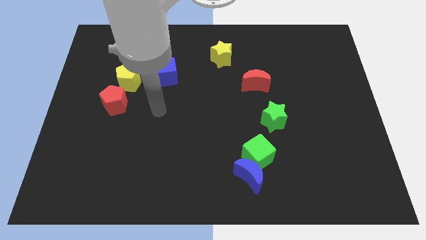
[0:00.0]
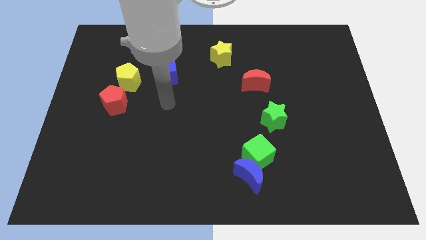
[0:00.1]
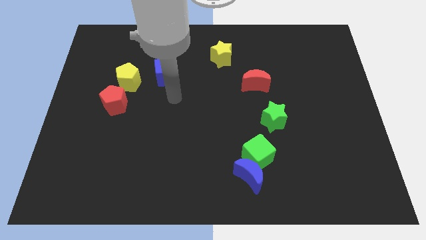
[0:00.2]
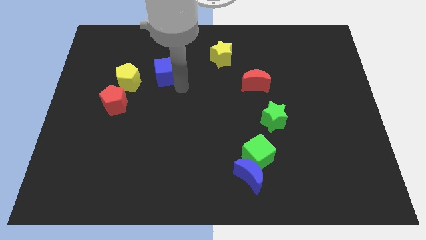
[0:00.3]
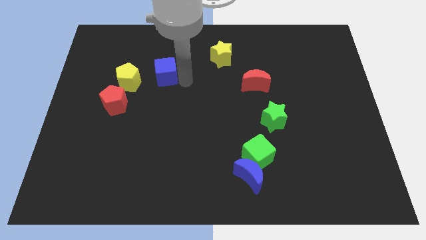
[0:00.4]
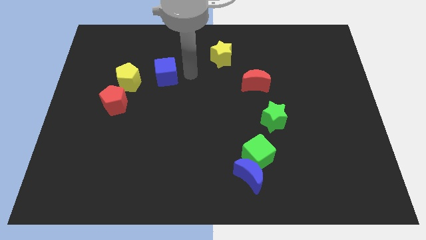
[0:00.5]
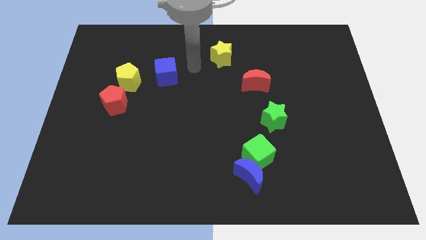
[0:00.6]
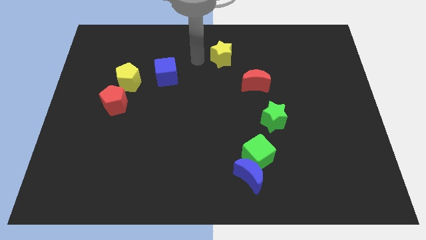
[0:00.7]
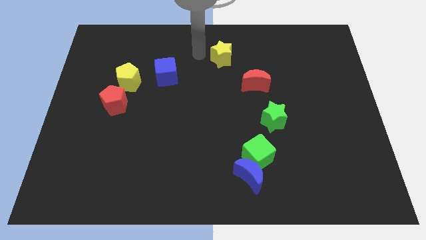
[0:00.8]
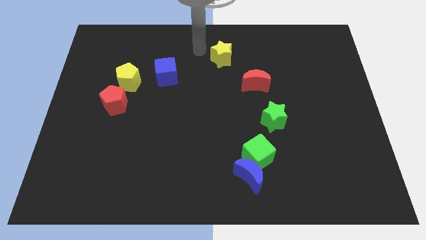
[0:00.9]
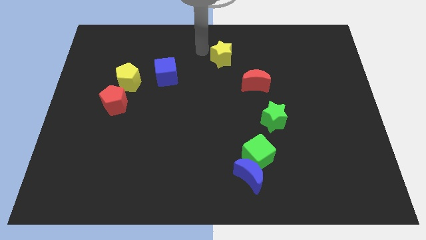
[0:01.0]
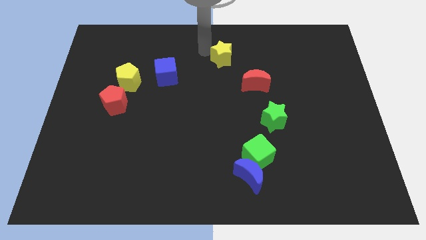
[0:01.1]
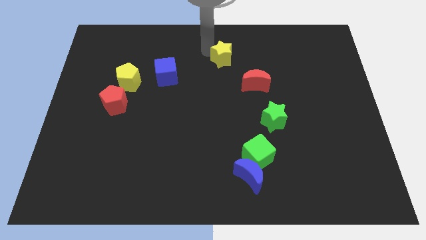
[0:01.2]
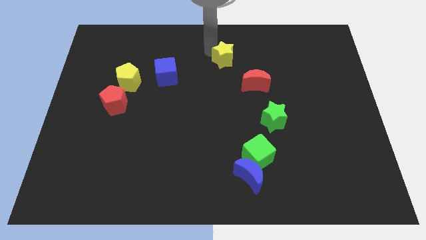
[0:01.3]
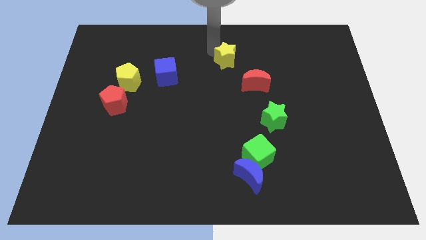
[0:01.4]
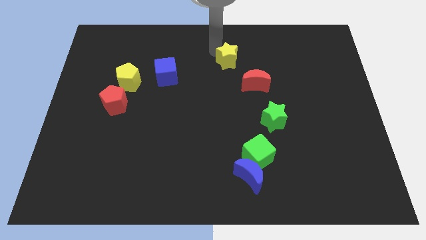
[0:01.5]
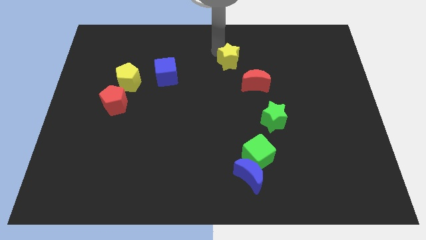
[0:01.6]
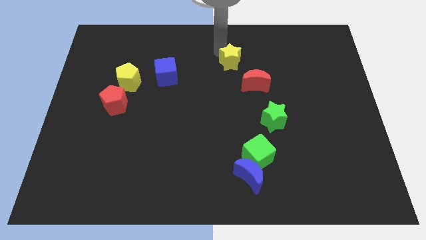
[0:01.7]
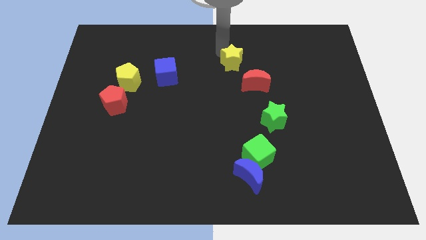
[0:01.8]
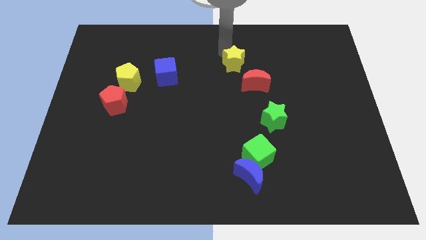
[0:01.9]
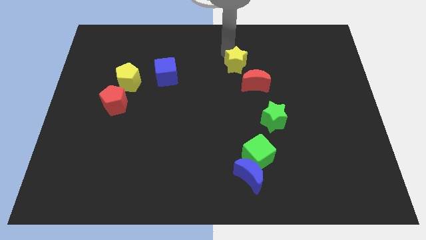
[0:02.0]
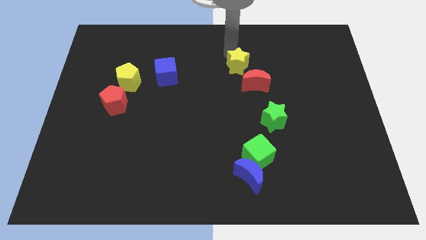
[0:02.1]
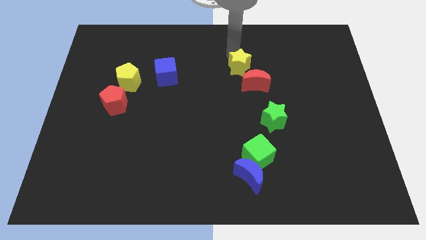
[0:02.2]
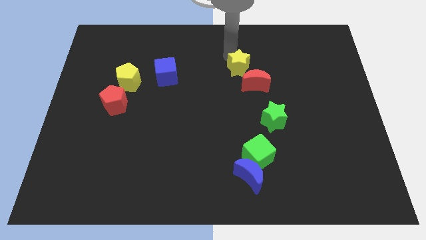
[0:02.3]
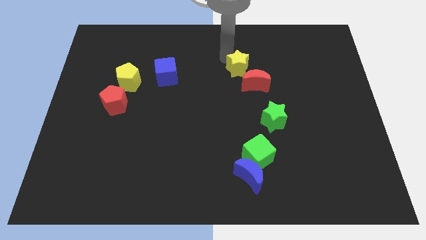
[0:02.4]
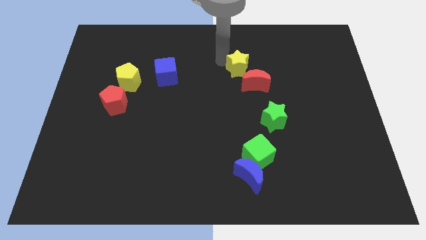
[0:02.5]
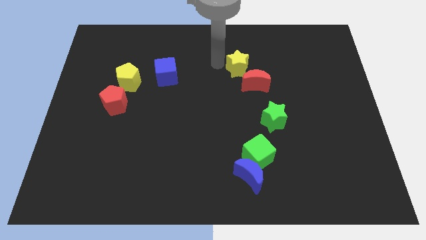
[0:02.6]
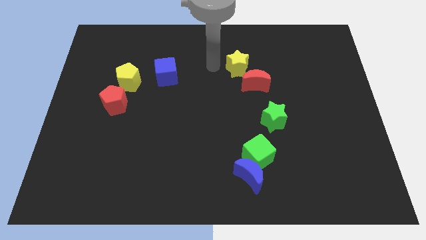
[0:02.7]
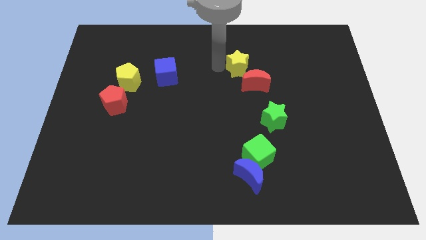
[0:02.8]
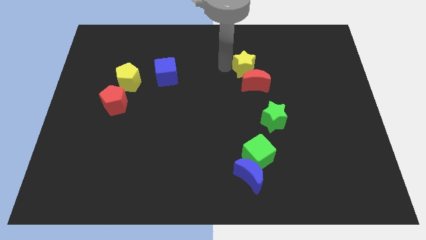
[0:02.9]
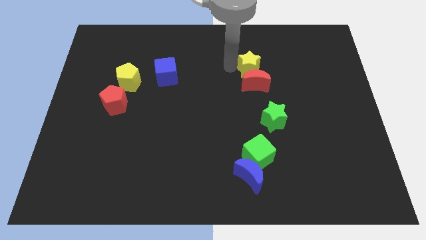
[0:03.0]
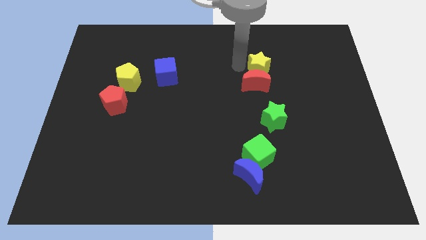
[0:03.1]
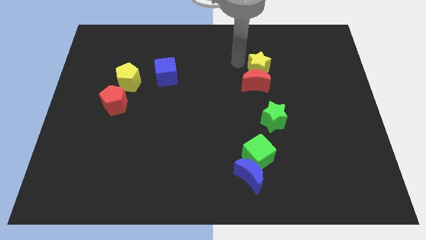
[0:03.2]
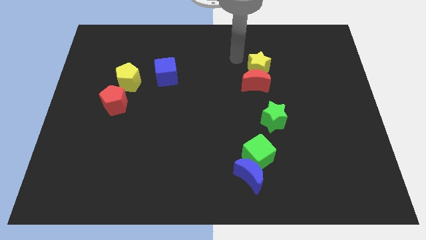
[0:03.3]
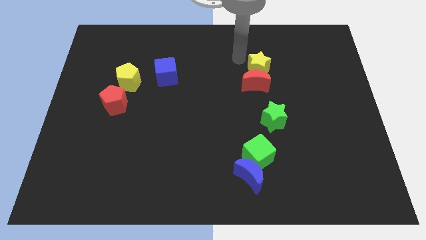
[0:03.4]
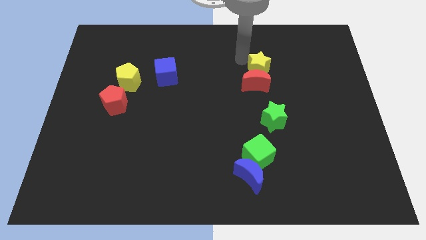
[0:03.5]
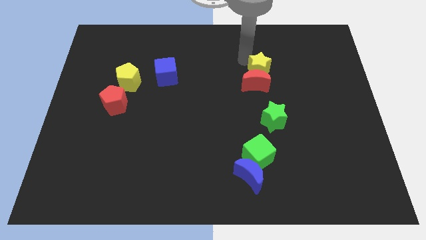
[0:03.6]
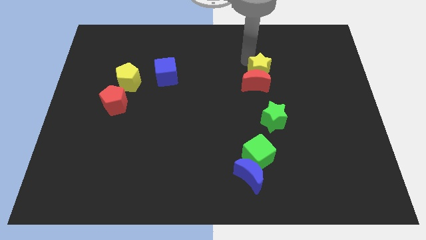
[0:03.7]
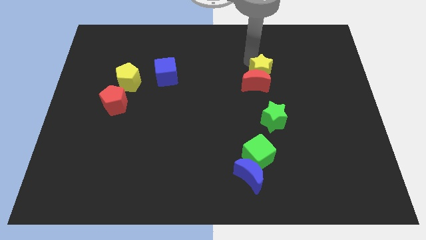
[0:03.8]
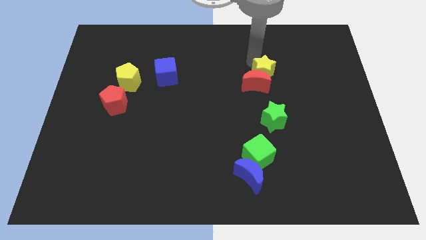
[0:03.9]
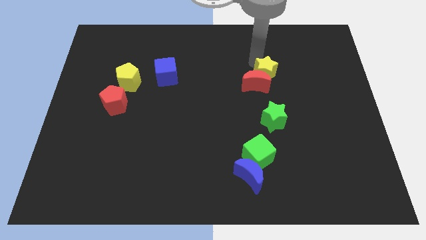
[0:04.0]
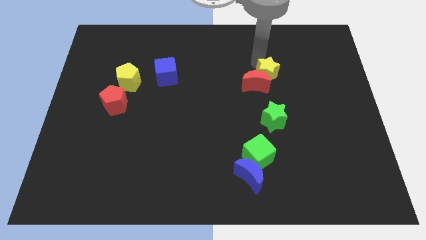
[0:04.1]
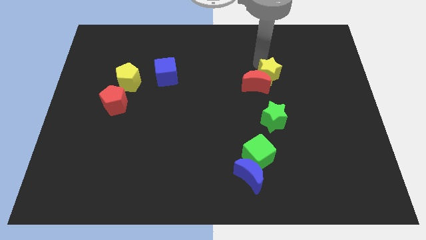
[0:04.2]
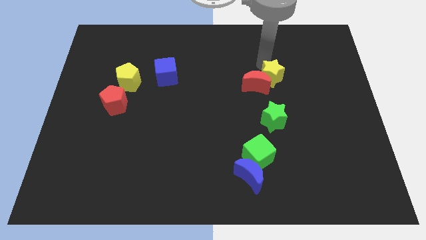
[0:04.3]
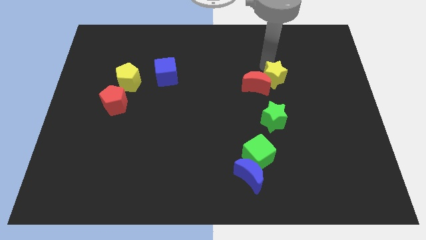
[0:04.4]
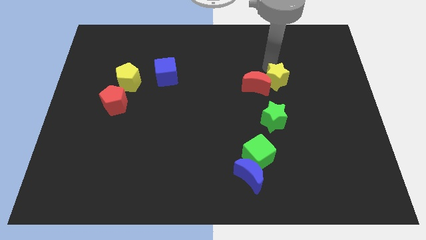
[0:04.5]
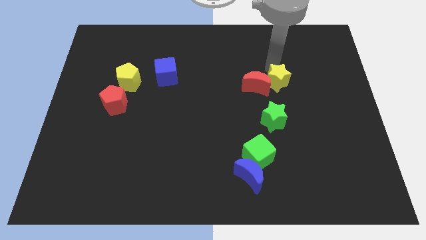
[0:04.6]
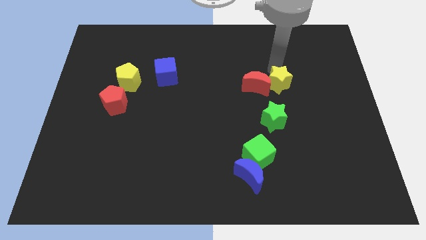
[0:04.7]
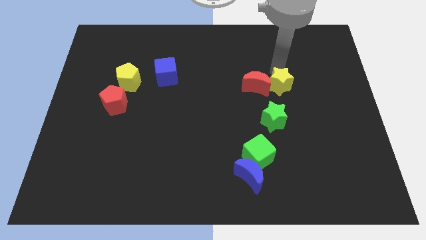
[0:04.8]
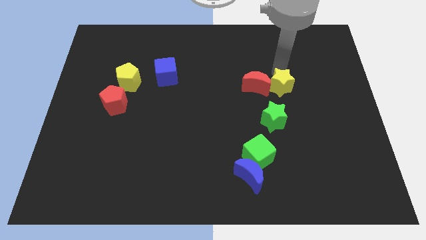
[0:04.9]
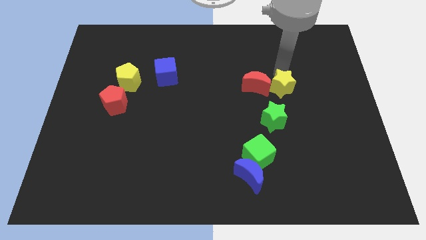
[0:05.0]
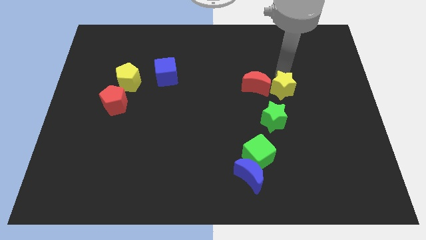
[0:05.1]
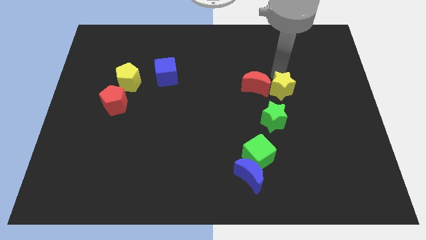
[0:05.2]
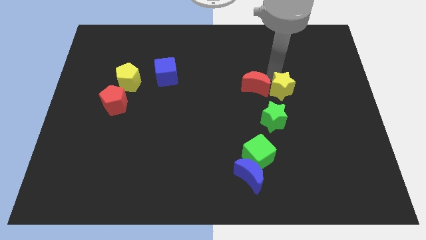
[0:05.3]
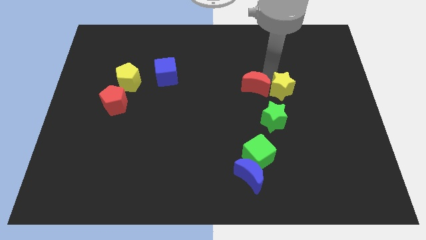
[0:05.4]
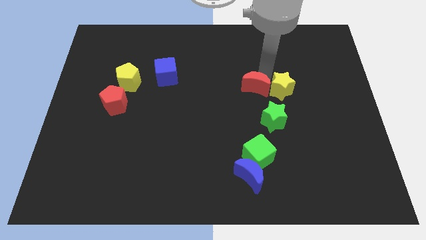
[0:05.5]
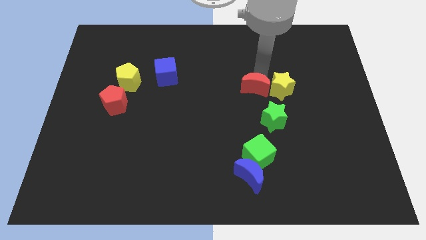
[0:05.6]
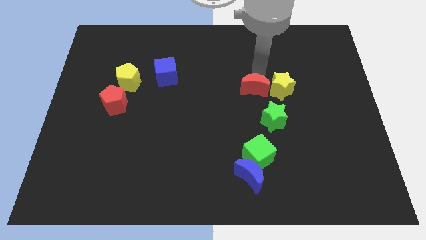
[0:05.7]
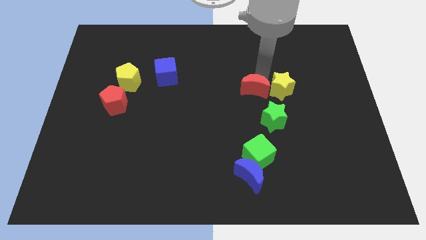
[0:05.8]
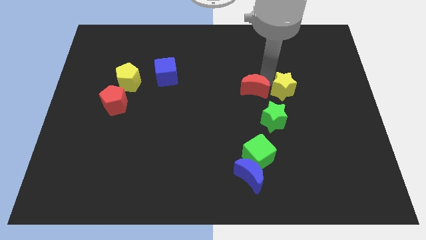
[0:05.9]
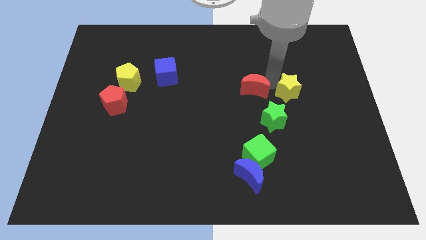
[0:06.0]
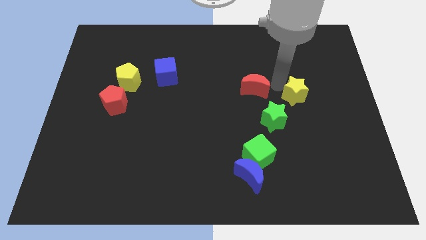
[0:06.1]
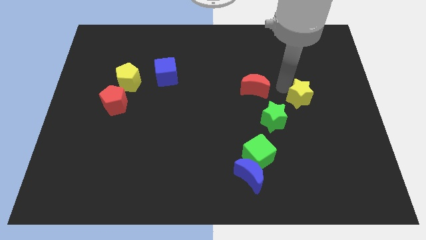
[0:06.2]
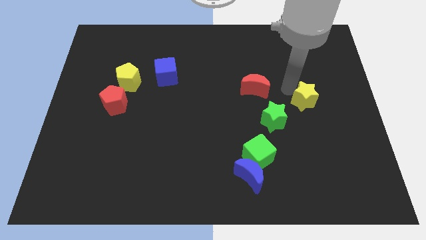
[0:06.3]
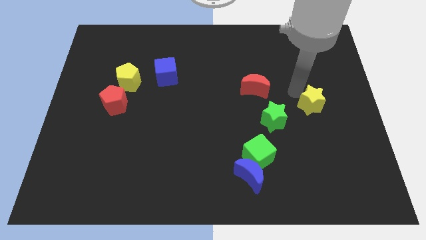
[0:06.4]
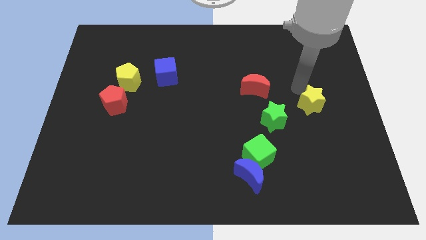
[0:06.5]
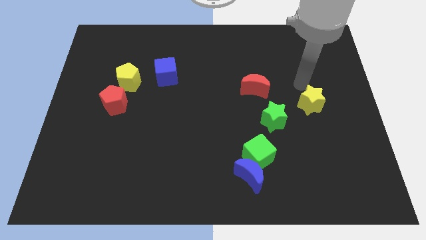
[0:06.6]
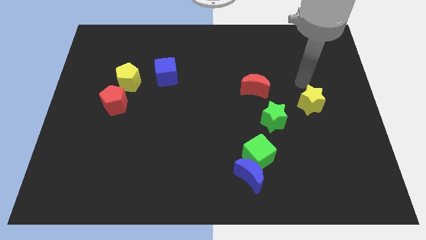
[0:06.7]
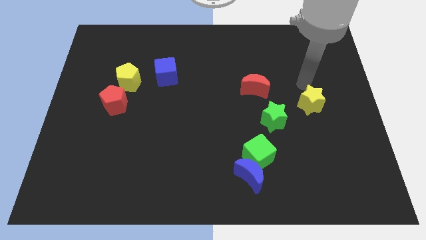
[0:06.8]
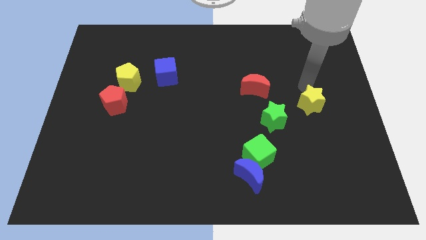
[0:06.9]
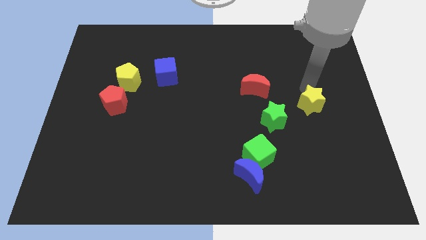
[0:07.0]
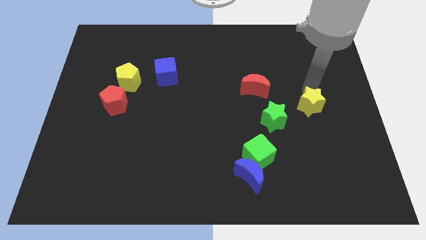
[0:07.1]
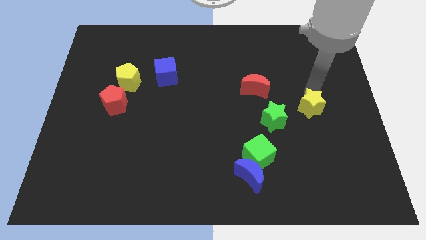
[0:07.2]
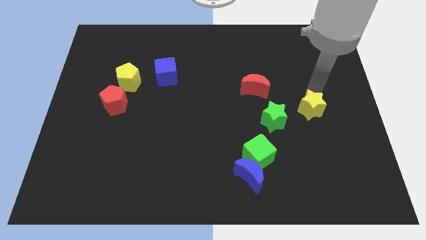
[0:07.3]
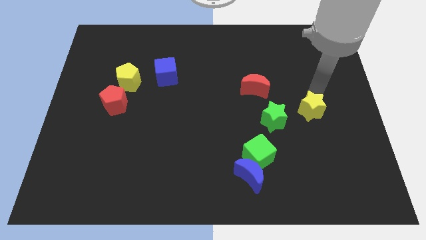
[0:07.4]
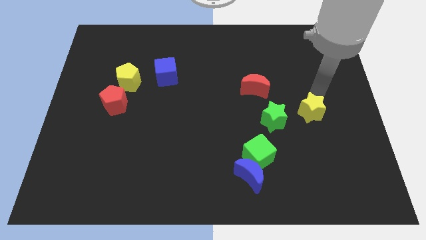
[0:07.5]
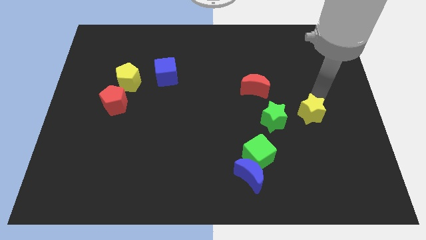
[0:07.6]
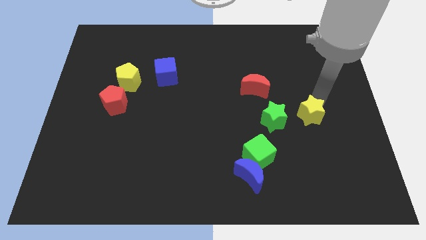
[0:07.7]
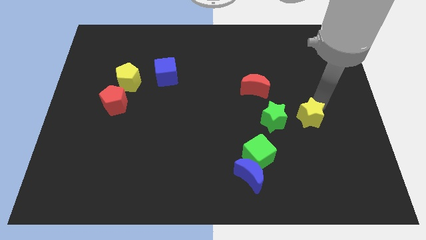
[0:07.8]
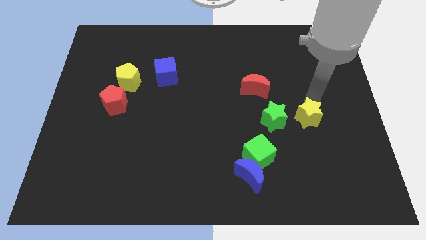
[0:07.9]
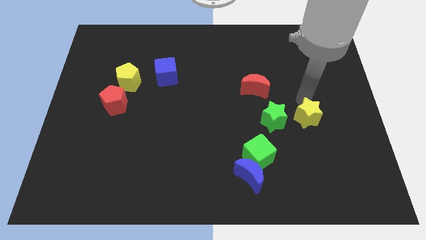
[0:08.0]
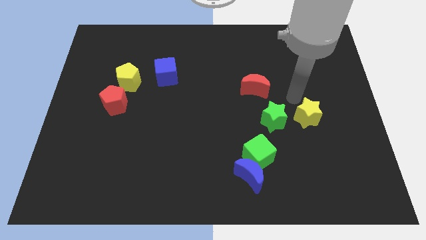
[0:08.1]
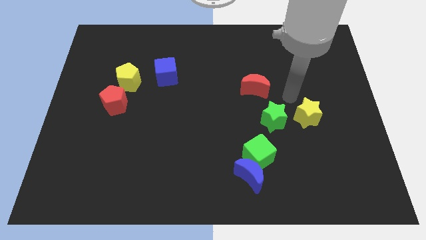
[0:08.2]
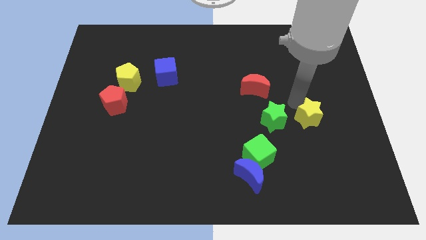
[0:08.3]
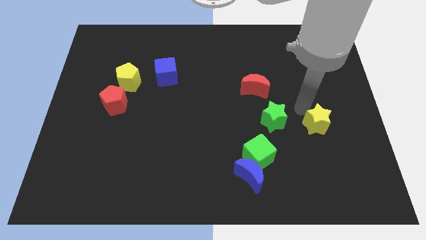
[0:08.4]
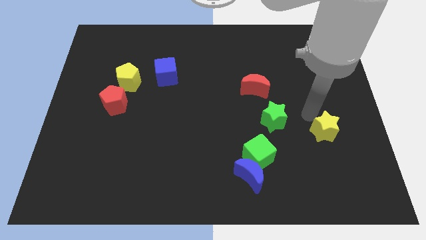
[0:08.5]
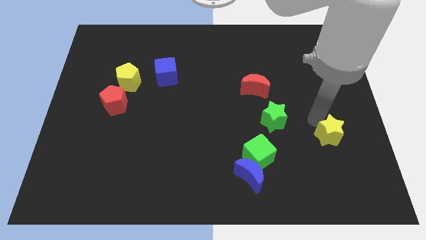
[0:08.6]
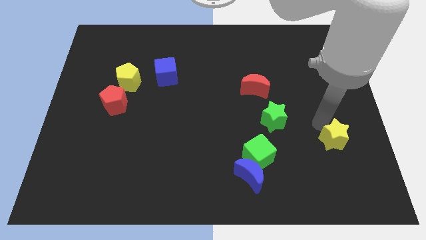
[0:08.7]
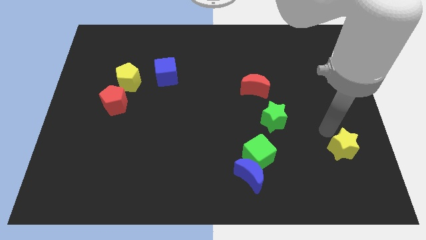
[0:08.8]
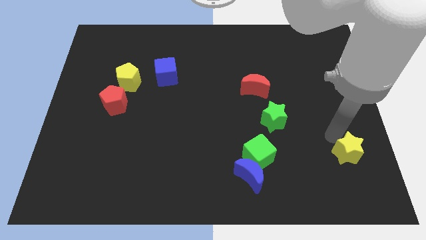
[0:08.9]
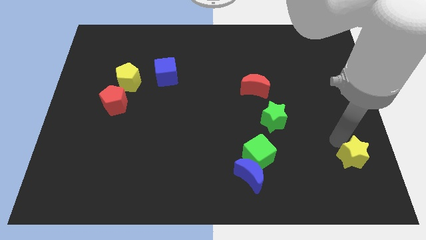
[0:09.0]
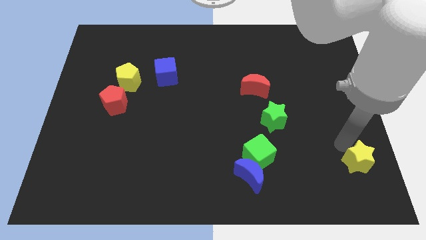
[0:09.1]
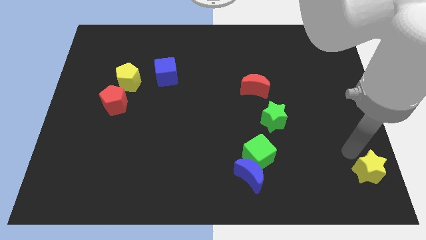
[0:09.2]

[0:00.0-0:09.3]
put the yellow star to the bottom right
